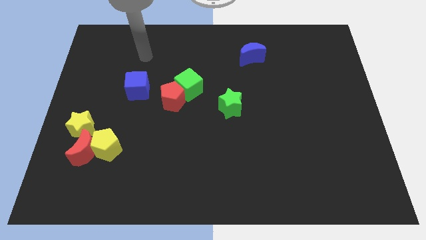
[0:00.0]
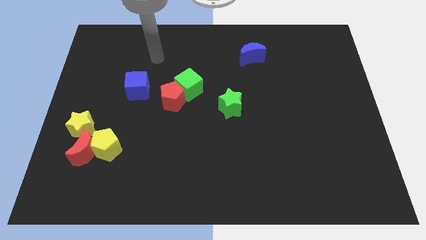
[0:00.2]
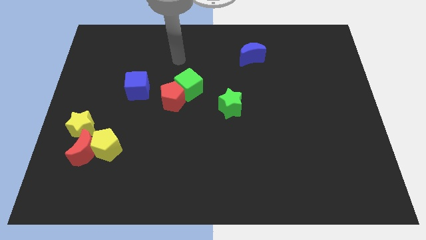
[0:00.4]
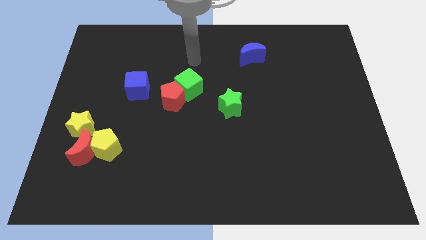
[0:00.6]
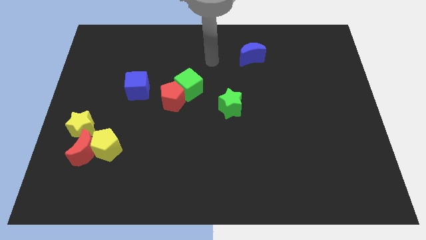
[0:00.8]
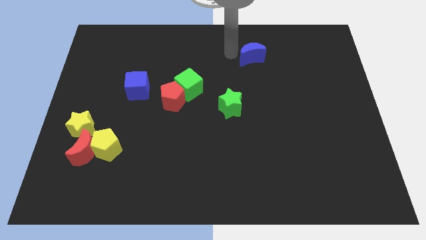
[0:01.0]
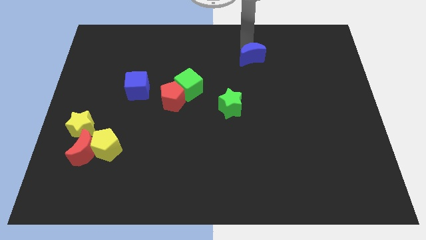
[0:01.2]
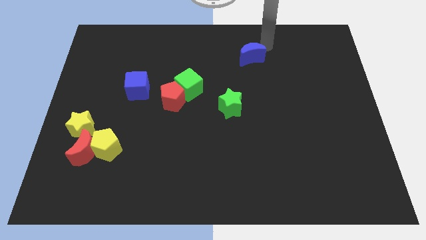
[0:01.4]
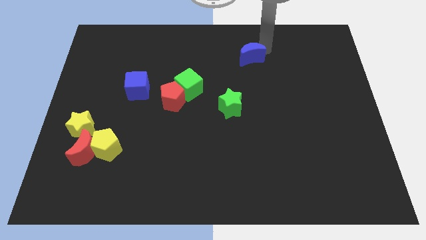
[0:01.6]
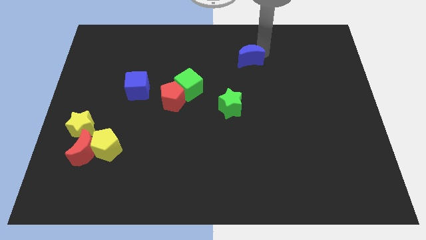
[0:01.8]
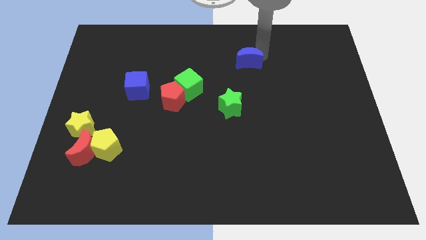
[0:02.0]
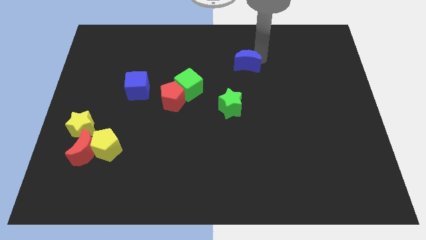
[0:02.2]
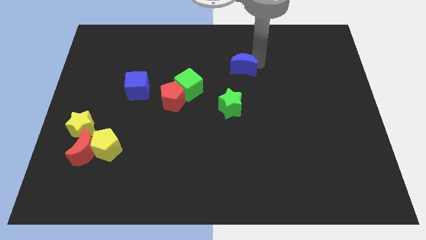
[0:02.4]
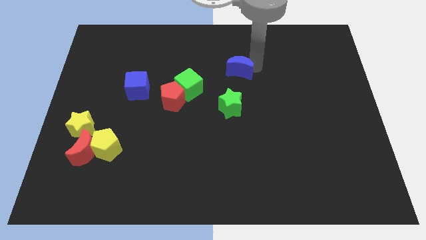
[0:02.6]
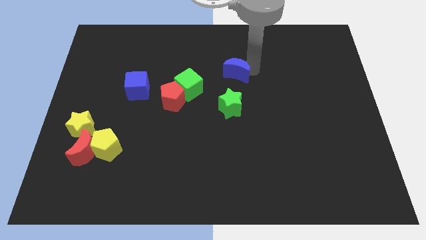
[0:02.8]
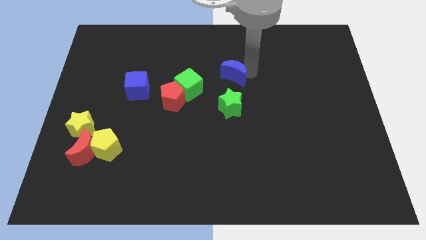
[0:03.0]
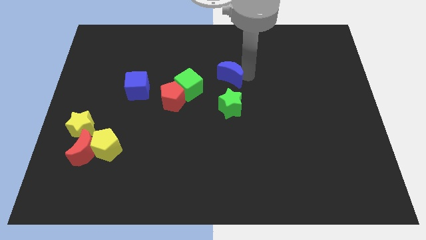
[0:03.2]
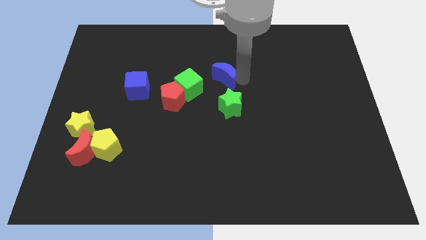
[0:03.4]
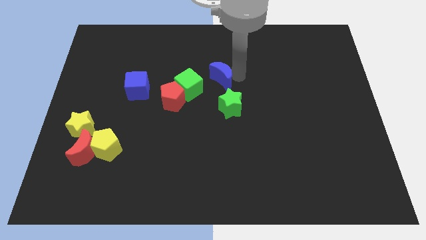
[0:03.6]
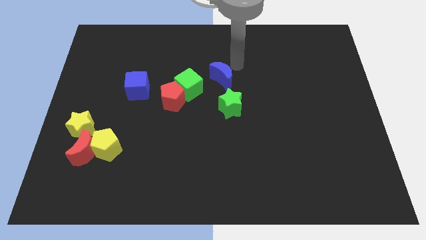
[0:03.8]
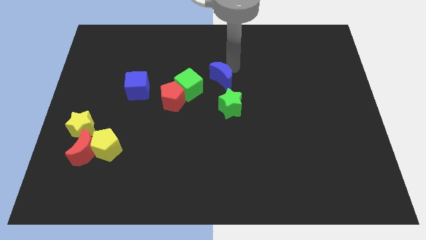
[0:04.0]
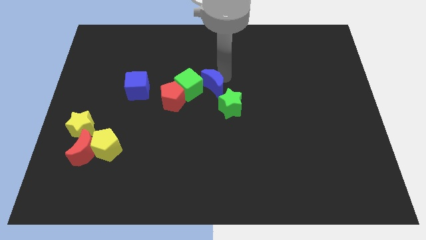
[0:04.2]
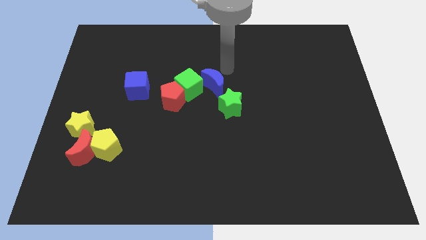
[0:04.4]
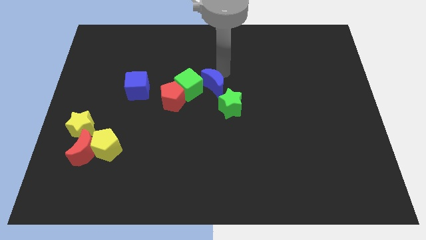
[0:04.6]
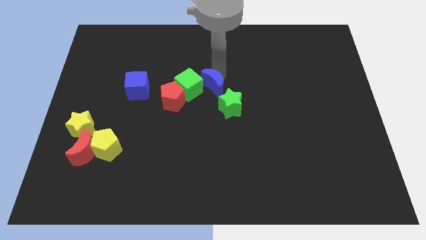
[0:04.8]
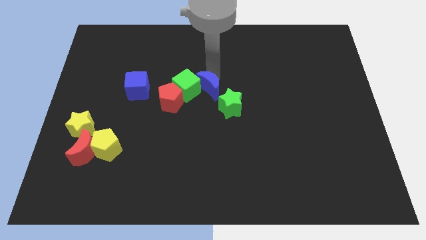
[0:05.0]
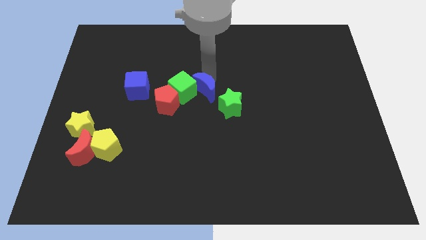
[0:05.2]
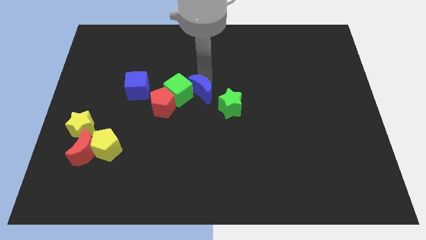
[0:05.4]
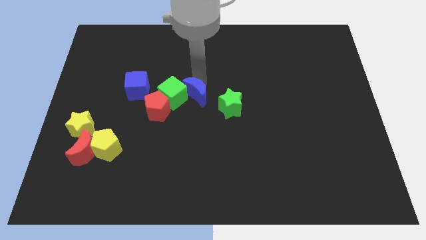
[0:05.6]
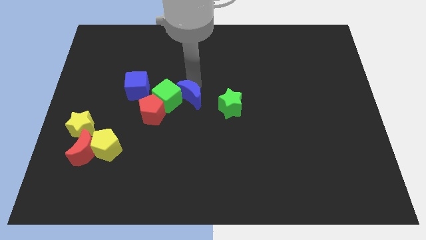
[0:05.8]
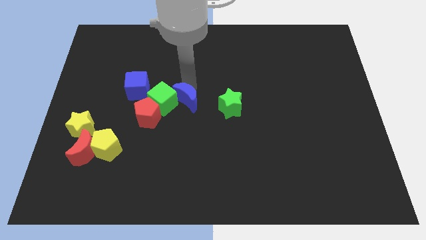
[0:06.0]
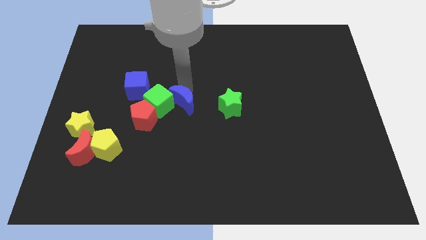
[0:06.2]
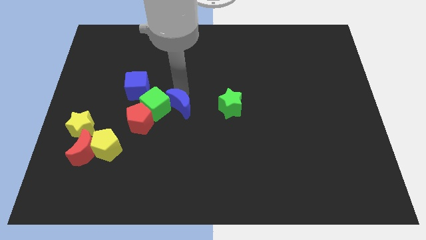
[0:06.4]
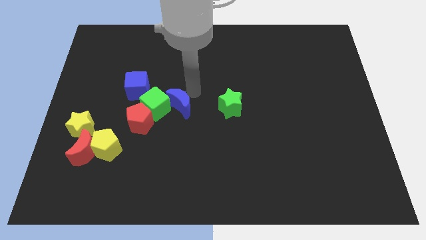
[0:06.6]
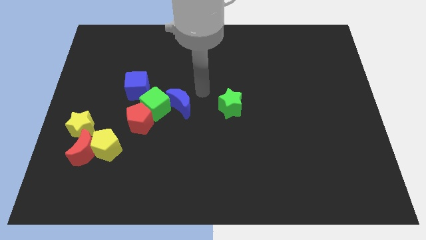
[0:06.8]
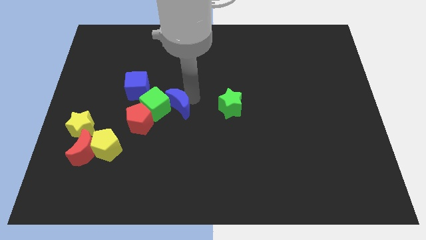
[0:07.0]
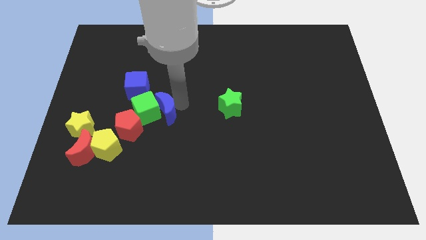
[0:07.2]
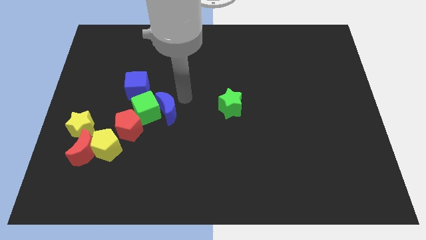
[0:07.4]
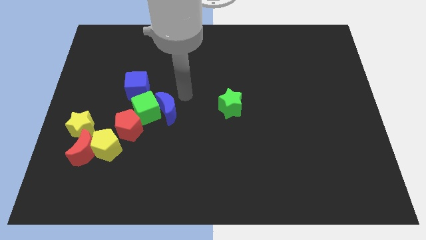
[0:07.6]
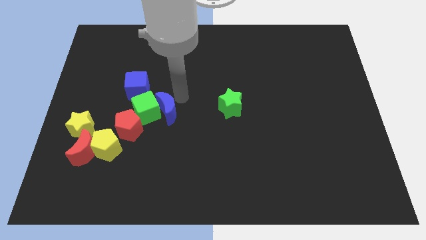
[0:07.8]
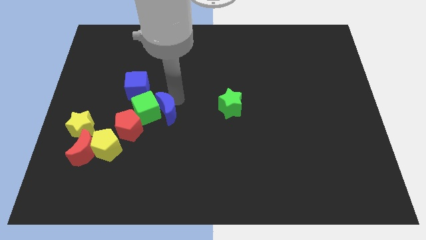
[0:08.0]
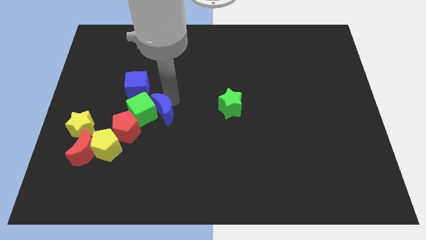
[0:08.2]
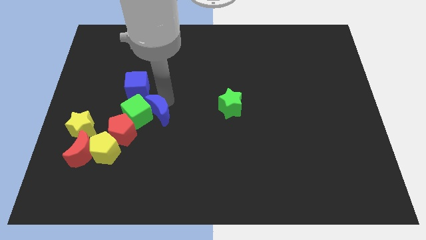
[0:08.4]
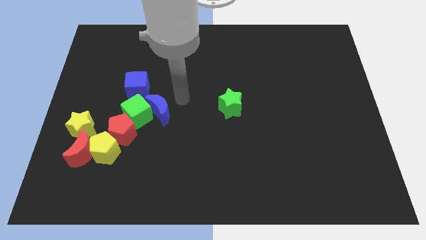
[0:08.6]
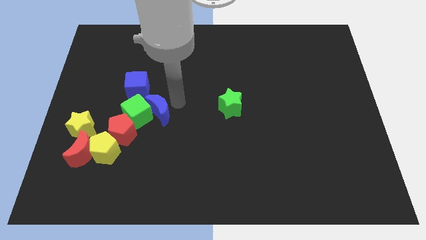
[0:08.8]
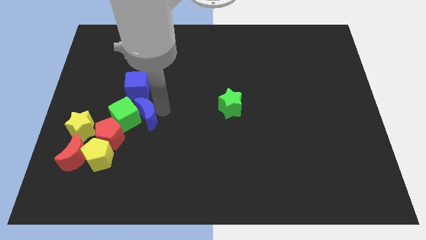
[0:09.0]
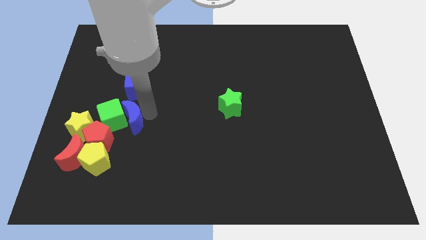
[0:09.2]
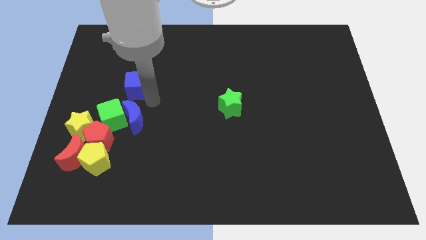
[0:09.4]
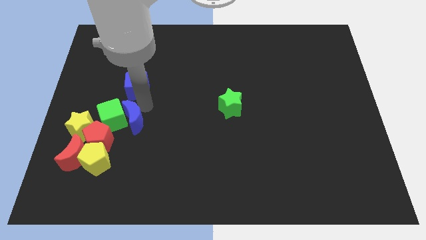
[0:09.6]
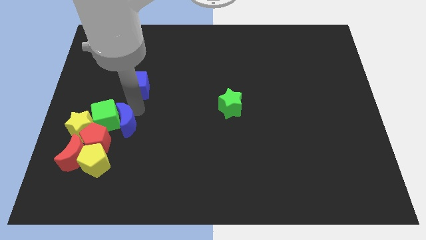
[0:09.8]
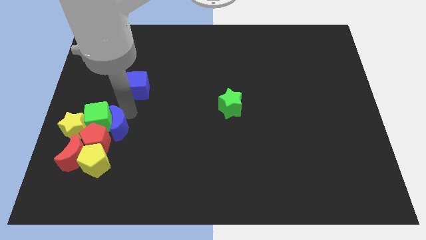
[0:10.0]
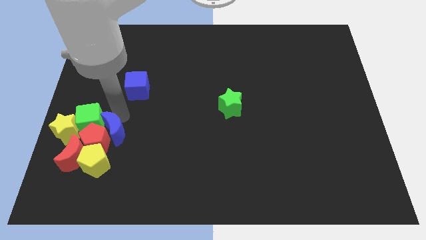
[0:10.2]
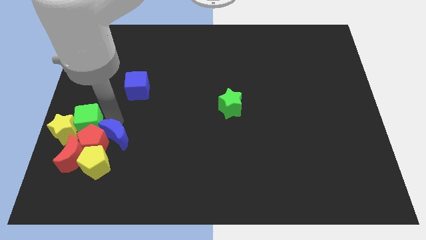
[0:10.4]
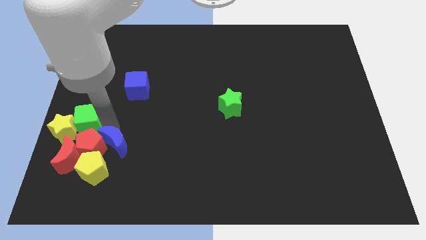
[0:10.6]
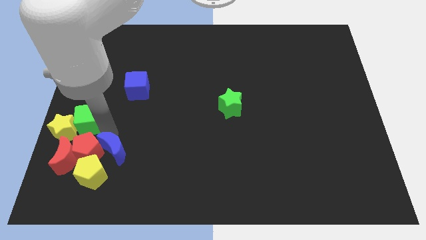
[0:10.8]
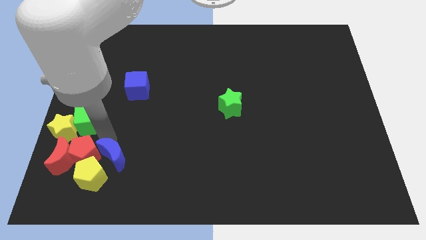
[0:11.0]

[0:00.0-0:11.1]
move the blue moon next to the yellow pentagon

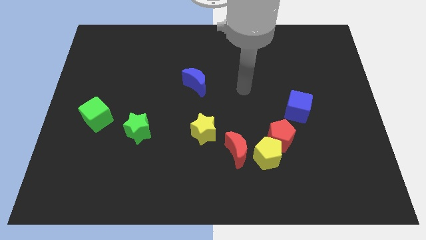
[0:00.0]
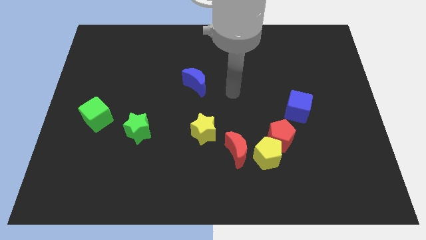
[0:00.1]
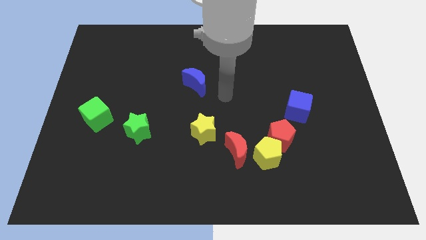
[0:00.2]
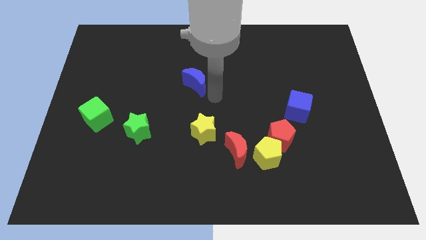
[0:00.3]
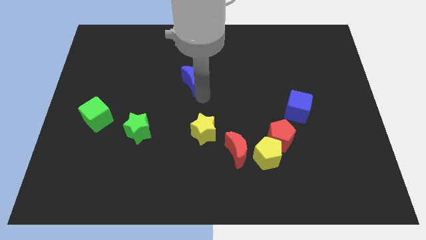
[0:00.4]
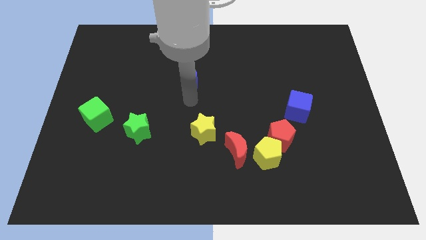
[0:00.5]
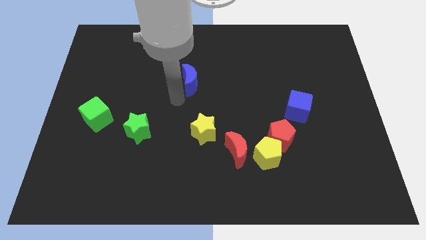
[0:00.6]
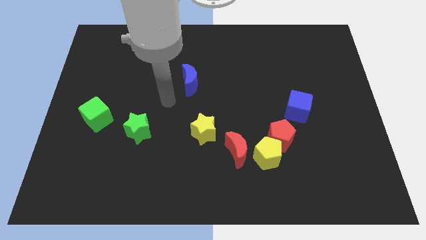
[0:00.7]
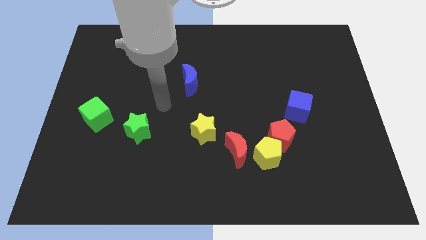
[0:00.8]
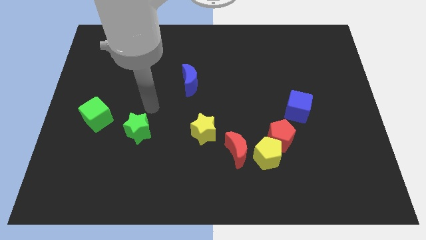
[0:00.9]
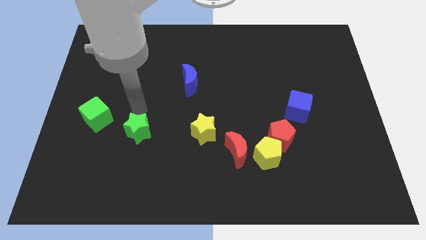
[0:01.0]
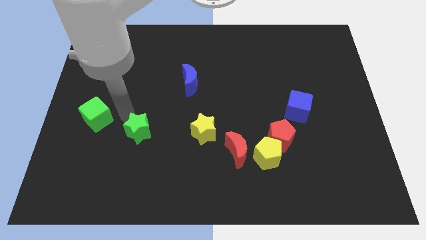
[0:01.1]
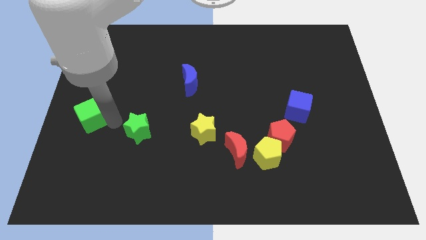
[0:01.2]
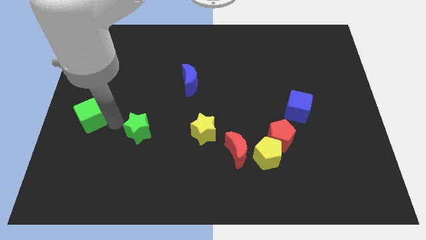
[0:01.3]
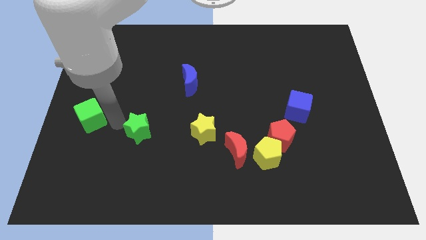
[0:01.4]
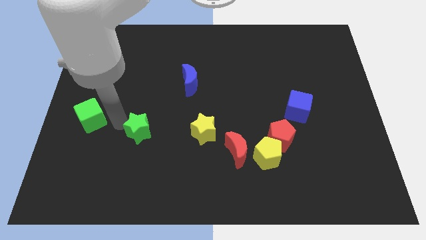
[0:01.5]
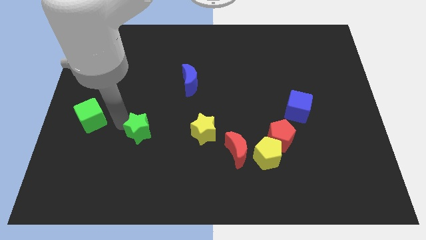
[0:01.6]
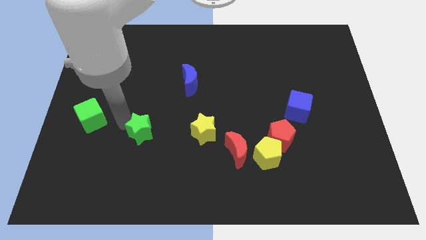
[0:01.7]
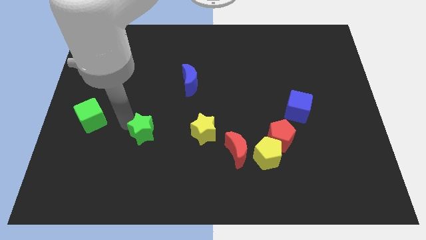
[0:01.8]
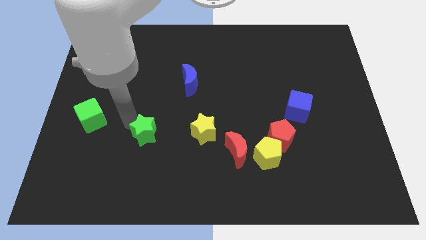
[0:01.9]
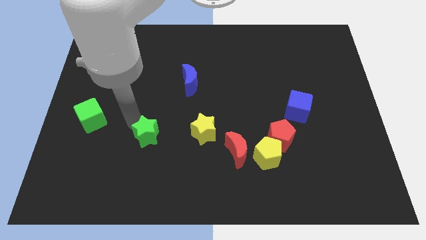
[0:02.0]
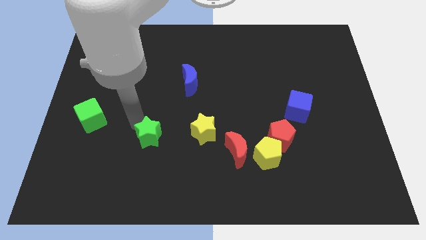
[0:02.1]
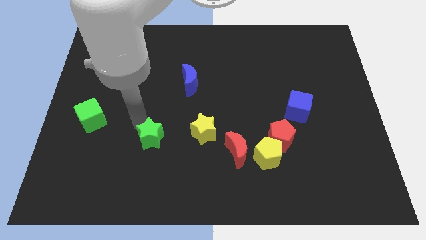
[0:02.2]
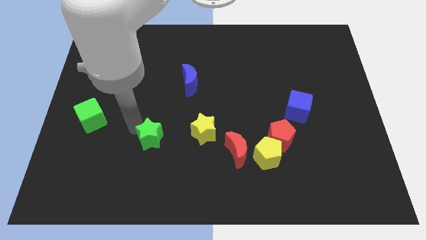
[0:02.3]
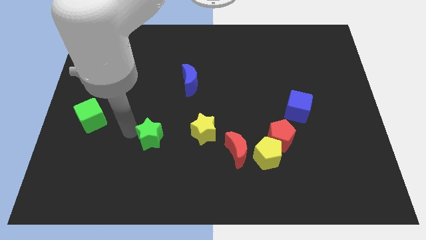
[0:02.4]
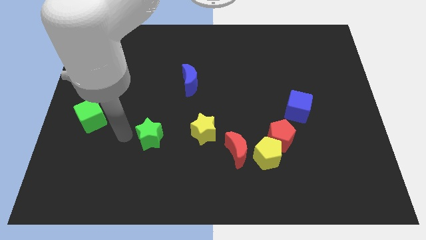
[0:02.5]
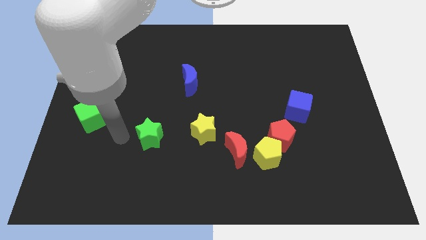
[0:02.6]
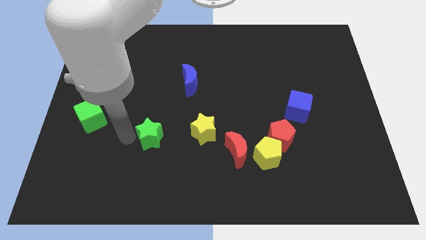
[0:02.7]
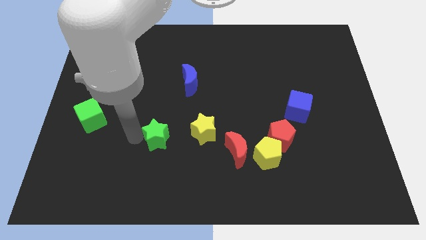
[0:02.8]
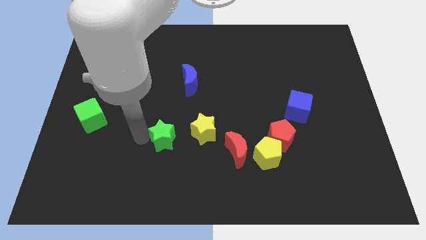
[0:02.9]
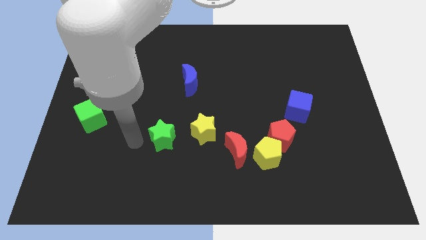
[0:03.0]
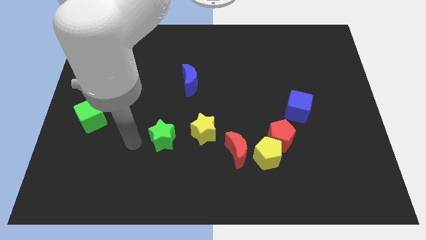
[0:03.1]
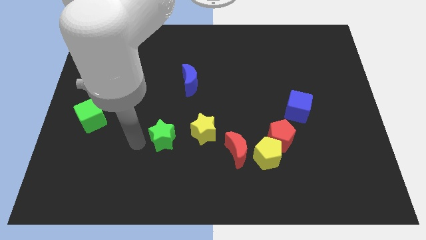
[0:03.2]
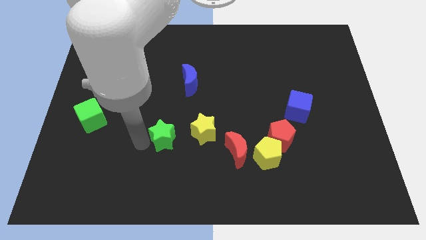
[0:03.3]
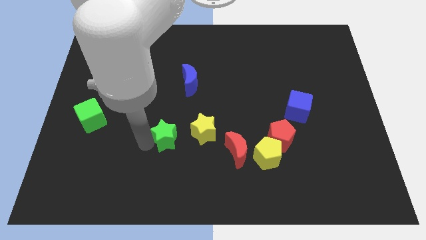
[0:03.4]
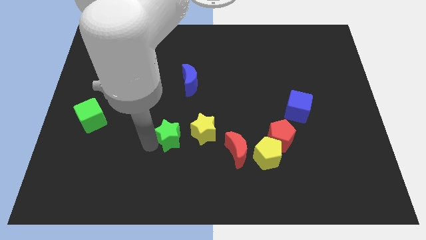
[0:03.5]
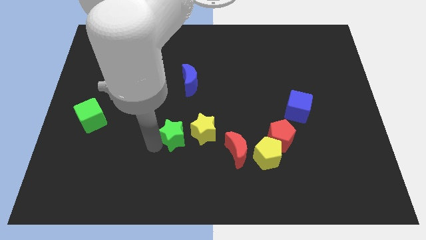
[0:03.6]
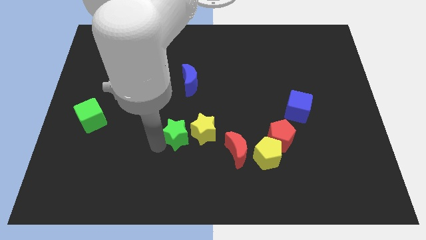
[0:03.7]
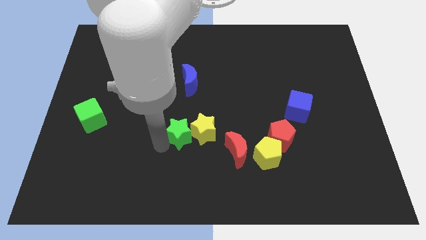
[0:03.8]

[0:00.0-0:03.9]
move the green star close to the yellow star
